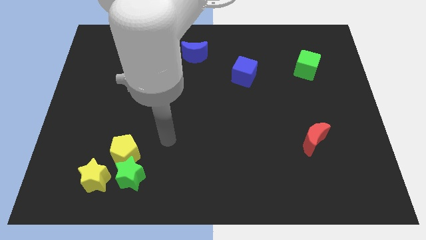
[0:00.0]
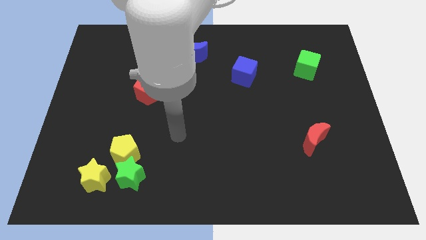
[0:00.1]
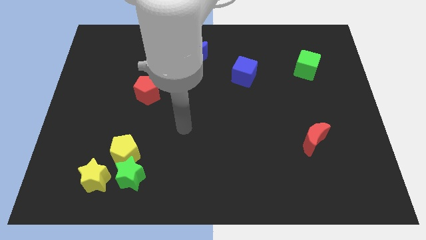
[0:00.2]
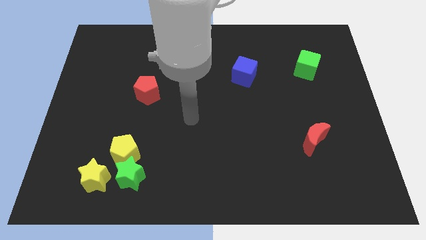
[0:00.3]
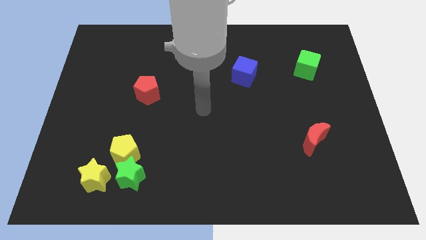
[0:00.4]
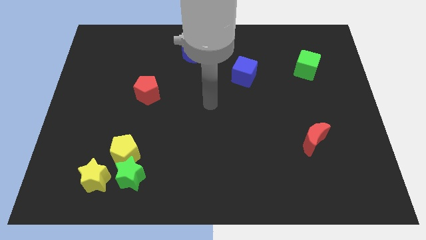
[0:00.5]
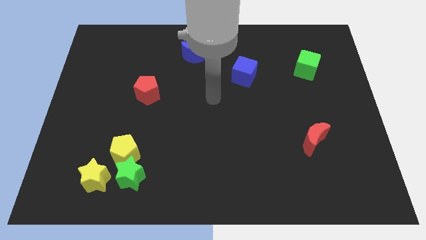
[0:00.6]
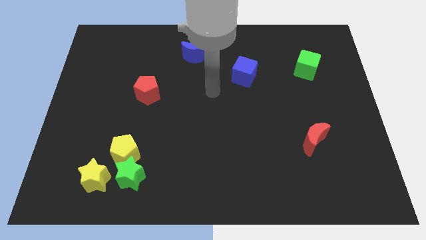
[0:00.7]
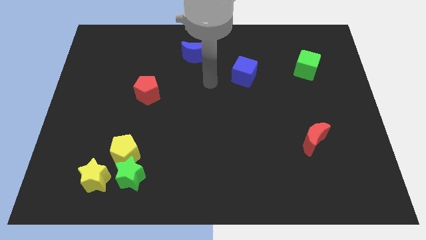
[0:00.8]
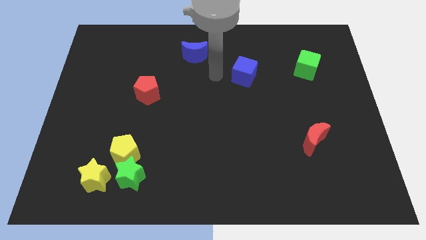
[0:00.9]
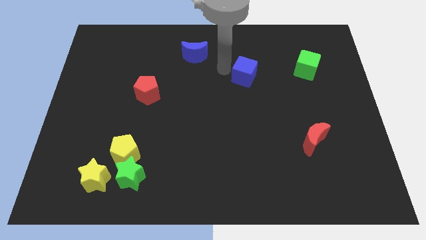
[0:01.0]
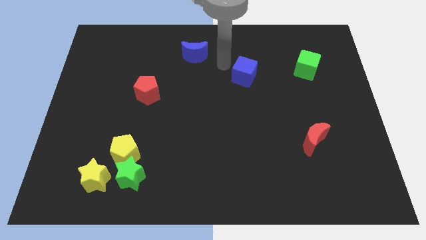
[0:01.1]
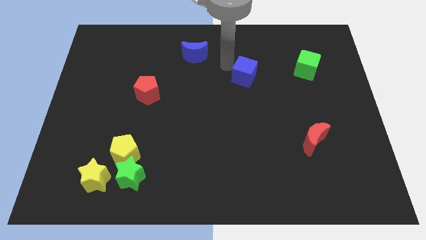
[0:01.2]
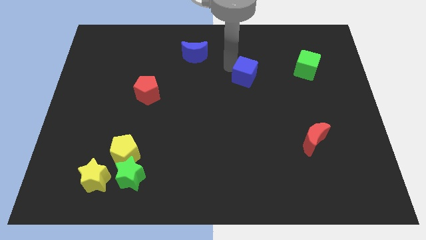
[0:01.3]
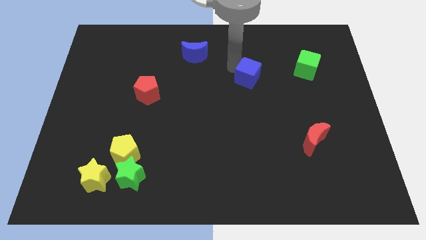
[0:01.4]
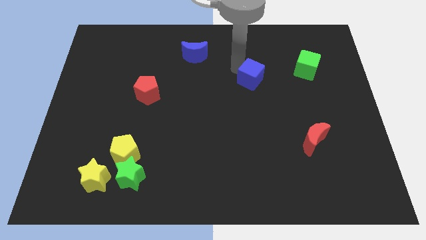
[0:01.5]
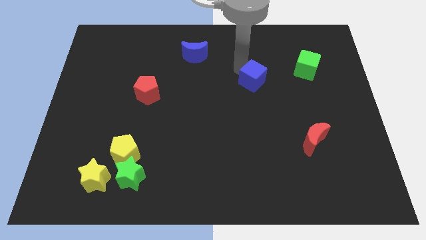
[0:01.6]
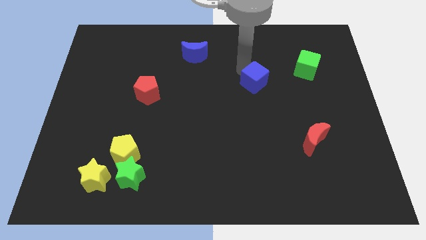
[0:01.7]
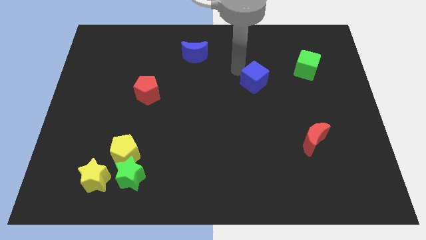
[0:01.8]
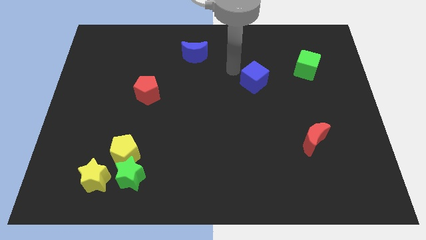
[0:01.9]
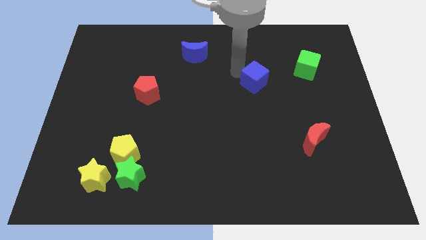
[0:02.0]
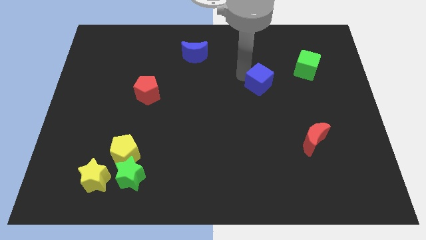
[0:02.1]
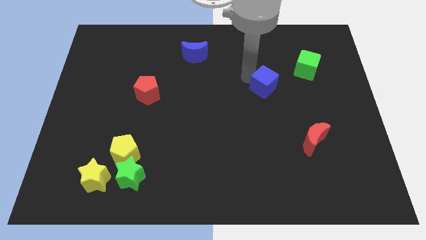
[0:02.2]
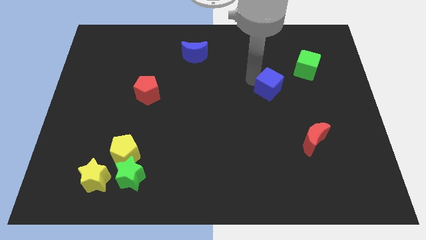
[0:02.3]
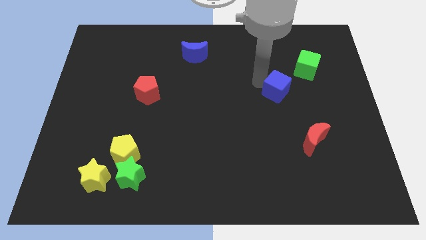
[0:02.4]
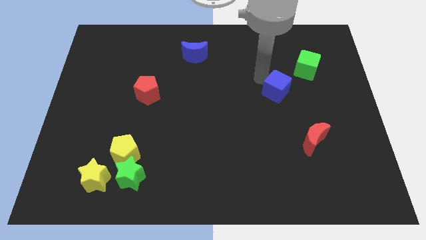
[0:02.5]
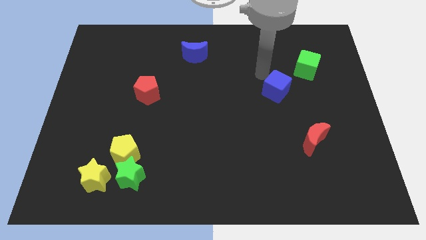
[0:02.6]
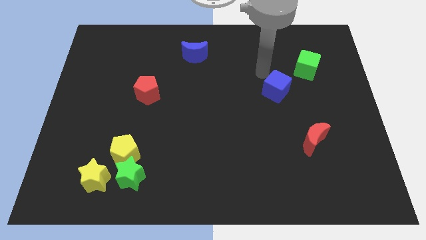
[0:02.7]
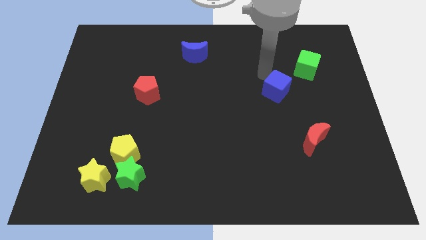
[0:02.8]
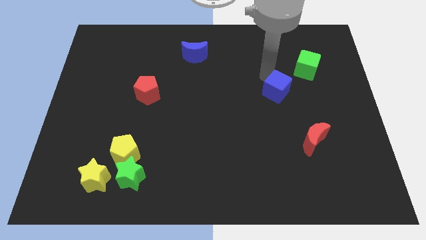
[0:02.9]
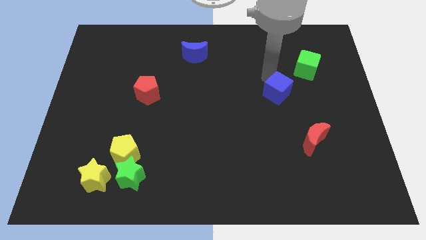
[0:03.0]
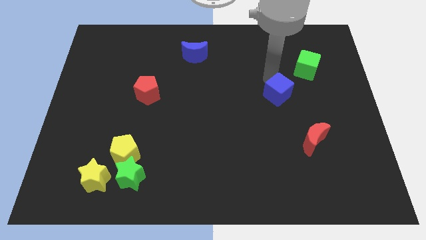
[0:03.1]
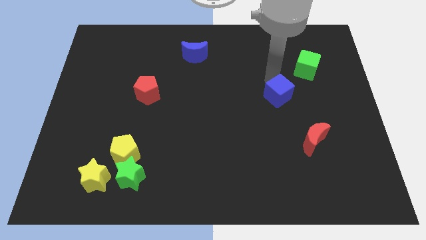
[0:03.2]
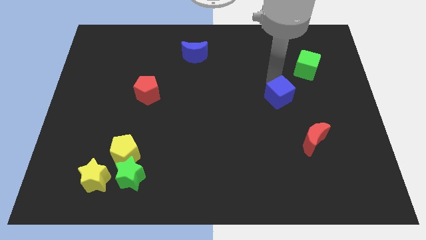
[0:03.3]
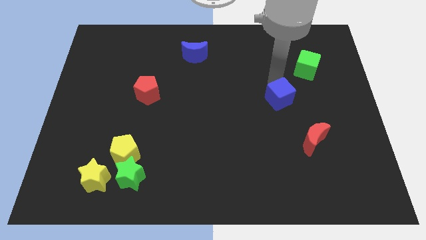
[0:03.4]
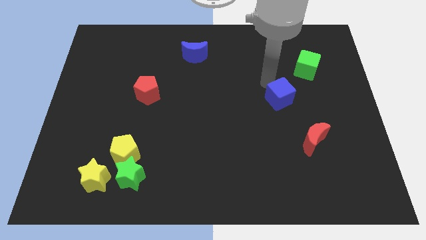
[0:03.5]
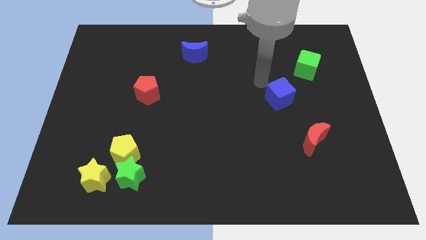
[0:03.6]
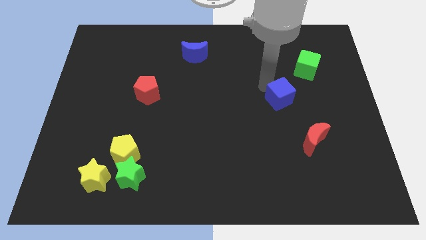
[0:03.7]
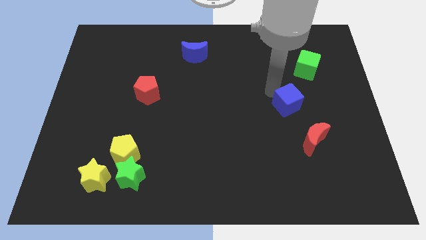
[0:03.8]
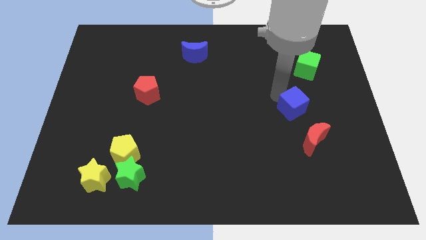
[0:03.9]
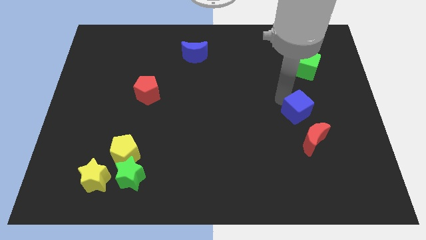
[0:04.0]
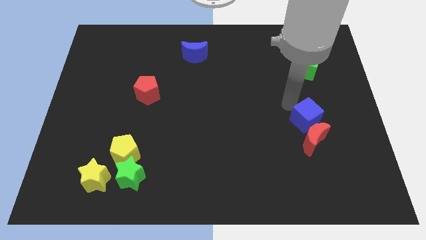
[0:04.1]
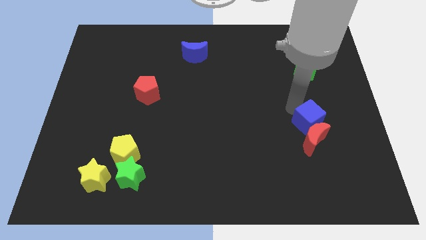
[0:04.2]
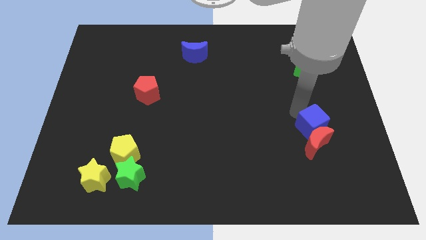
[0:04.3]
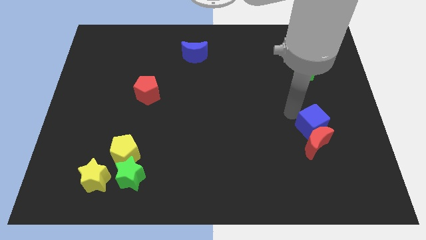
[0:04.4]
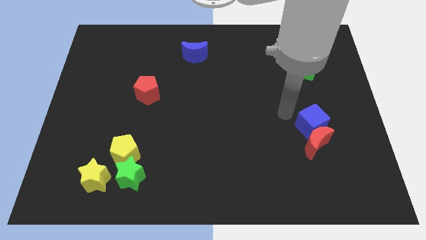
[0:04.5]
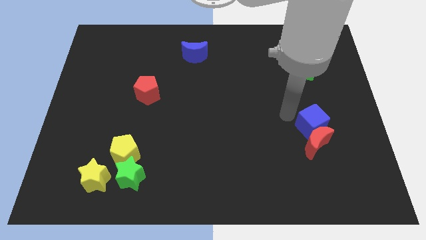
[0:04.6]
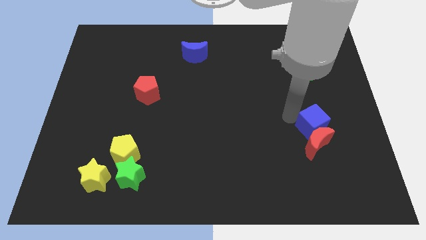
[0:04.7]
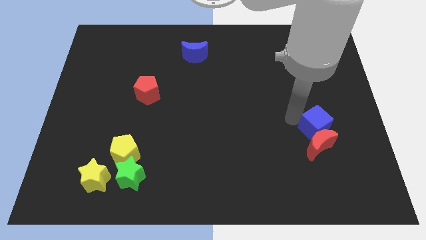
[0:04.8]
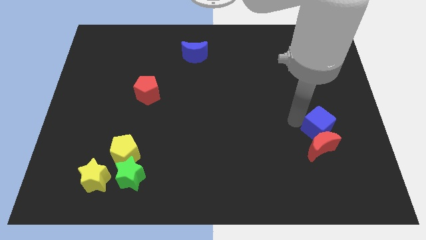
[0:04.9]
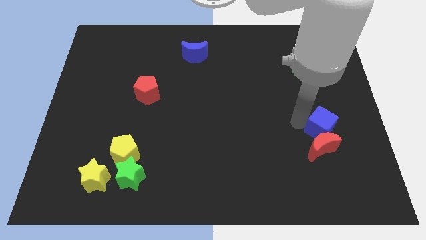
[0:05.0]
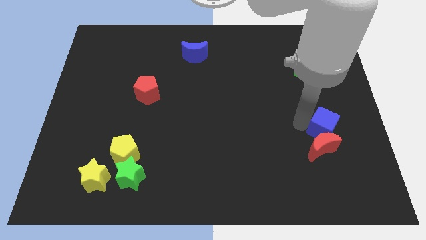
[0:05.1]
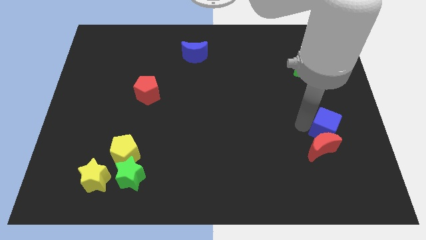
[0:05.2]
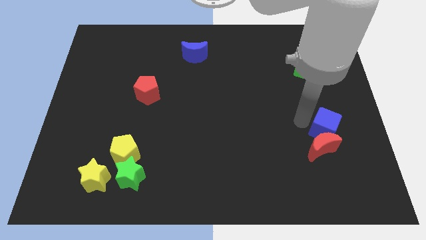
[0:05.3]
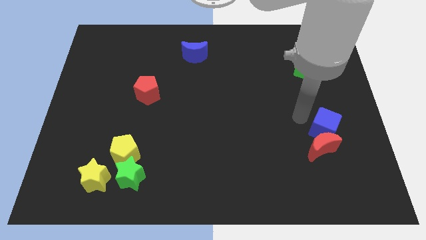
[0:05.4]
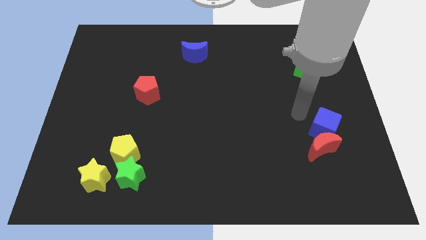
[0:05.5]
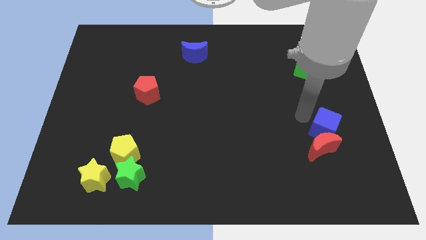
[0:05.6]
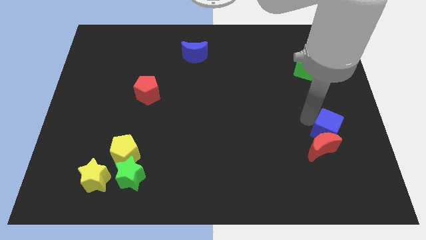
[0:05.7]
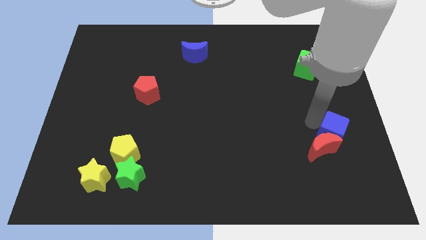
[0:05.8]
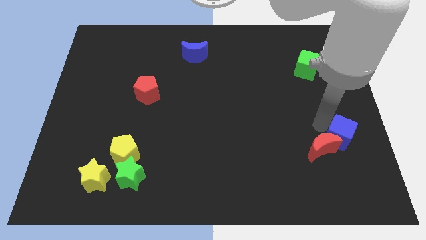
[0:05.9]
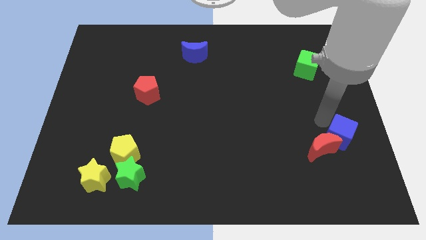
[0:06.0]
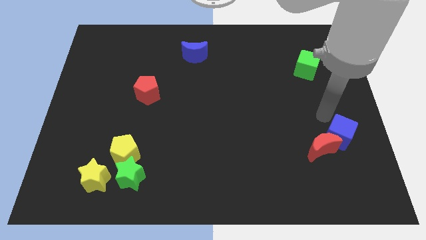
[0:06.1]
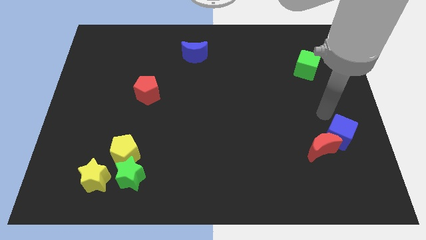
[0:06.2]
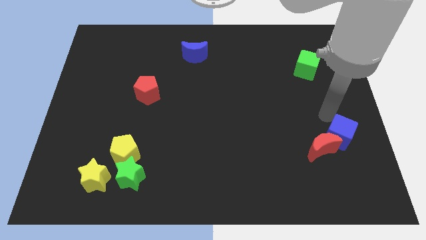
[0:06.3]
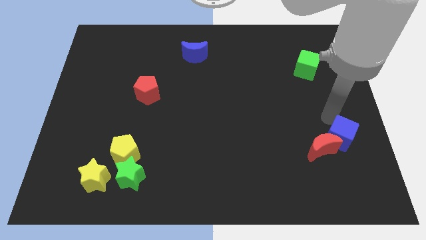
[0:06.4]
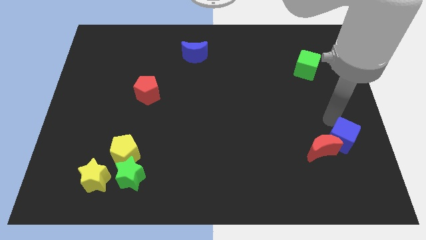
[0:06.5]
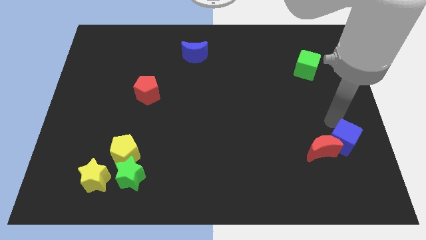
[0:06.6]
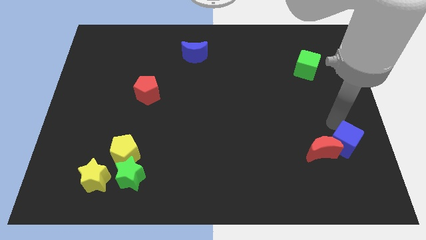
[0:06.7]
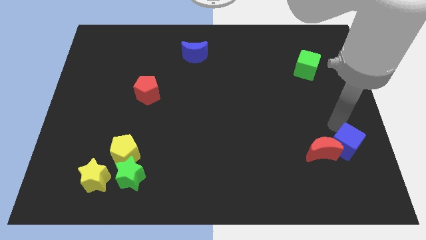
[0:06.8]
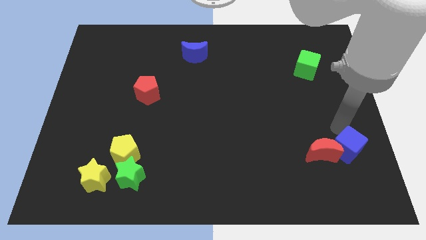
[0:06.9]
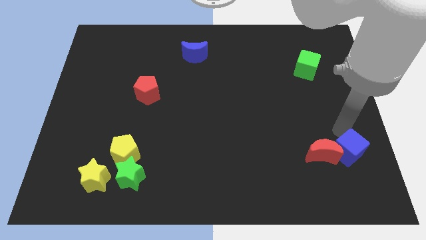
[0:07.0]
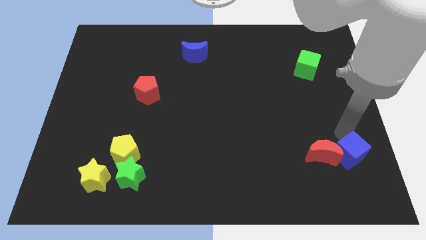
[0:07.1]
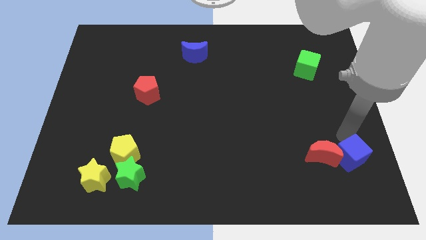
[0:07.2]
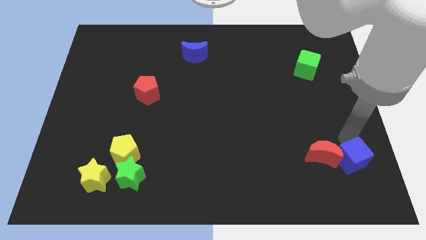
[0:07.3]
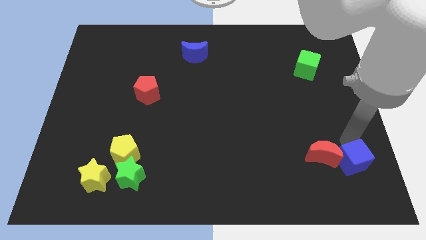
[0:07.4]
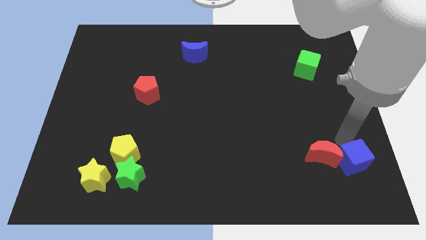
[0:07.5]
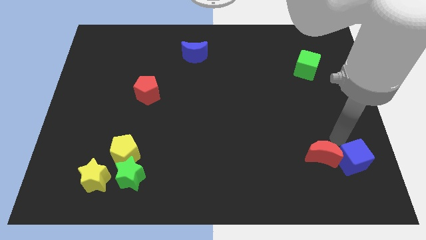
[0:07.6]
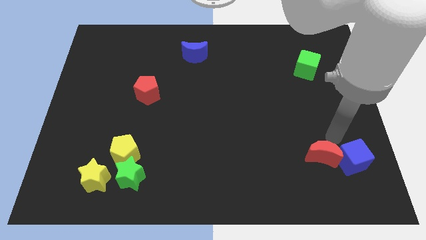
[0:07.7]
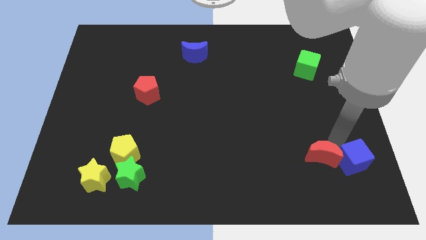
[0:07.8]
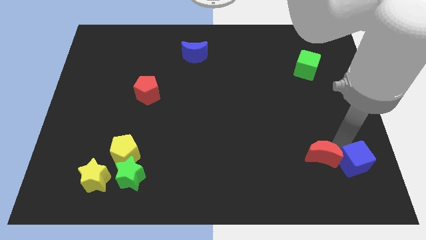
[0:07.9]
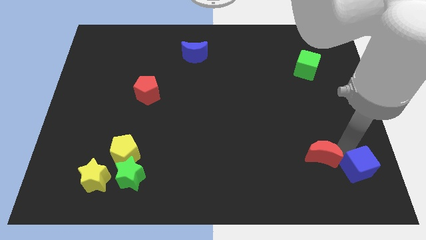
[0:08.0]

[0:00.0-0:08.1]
put the blue cube to the lower right corner
